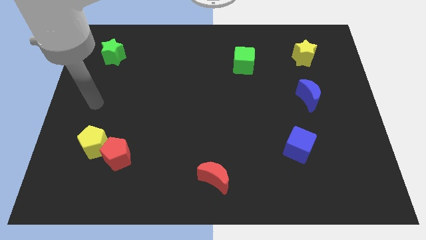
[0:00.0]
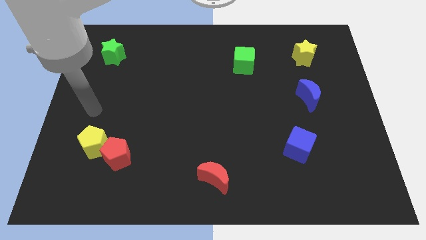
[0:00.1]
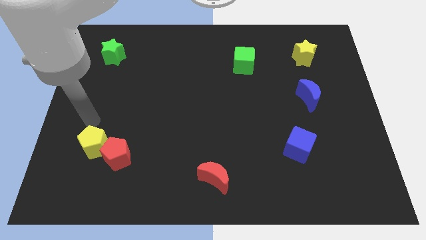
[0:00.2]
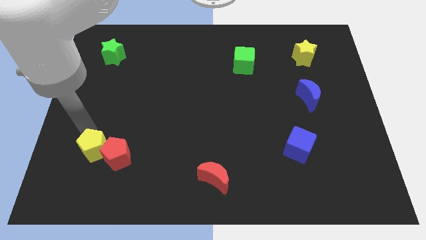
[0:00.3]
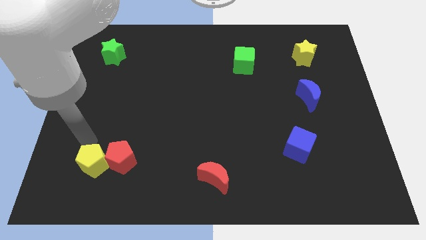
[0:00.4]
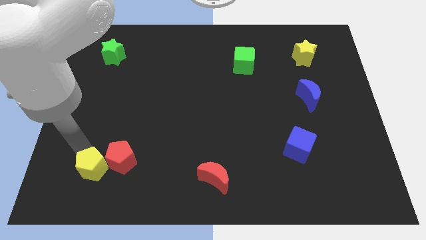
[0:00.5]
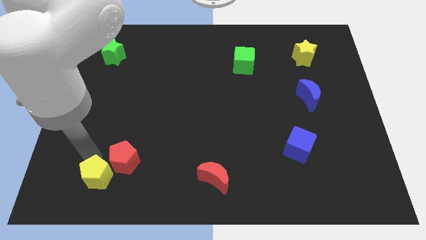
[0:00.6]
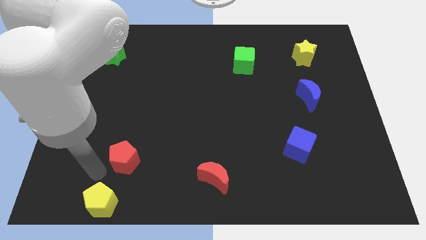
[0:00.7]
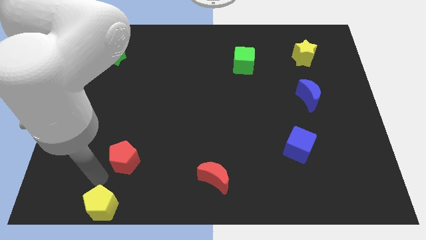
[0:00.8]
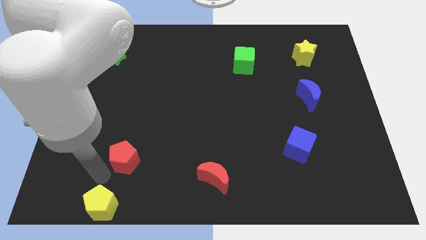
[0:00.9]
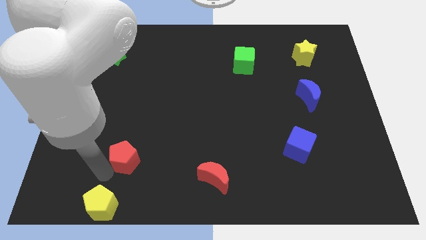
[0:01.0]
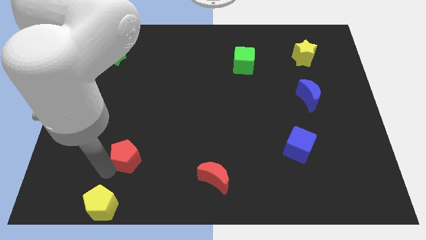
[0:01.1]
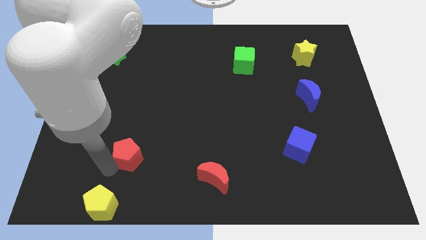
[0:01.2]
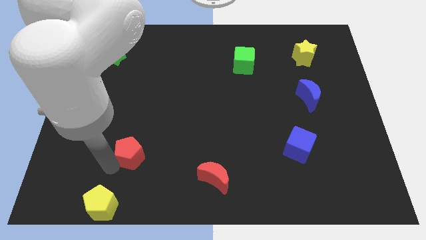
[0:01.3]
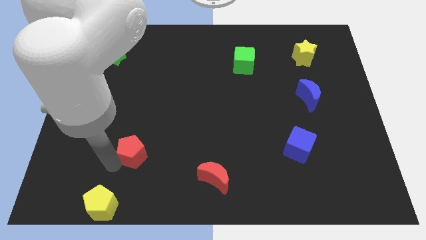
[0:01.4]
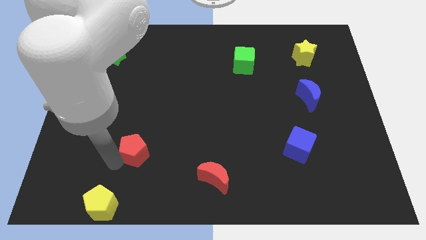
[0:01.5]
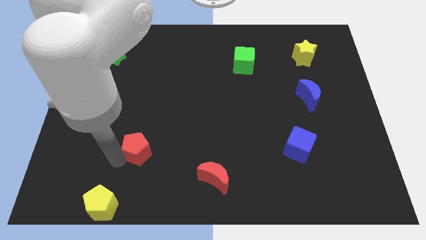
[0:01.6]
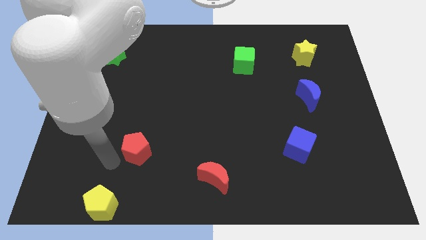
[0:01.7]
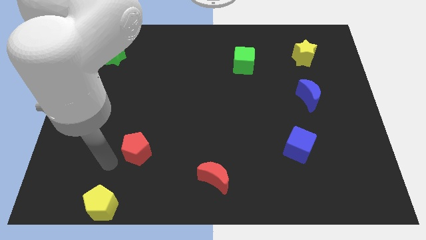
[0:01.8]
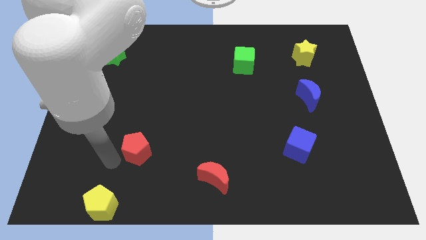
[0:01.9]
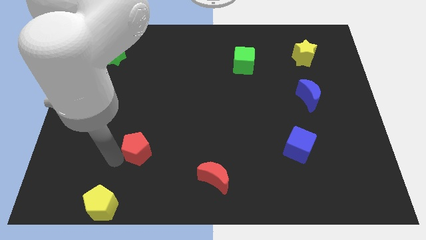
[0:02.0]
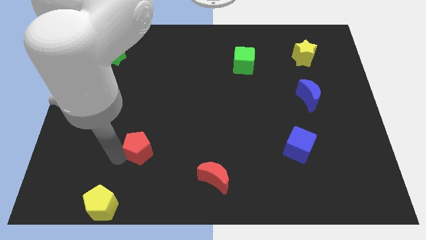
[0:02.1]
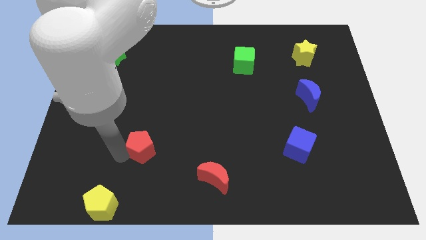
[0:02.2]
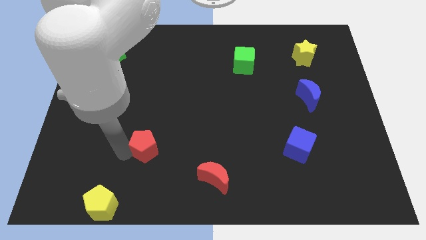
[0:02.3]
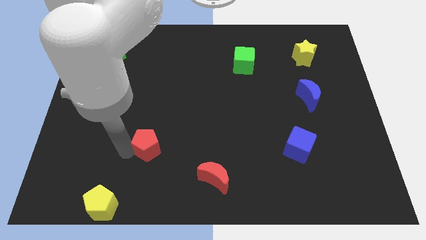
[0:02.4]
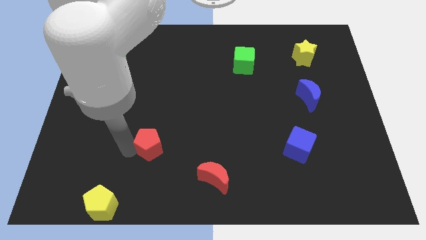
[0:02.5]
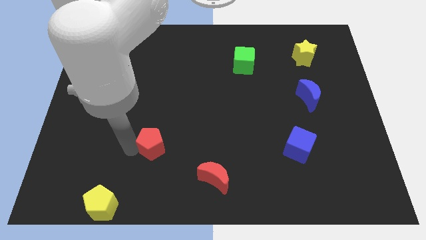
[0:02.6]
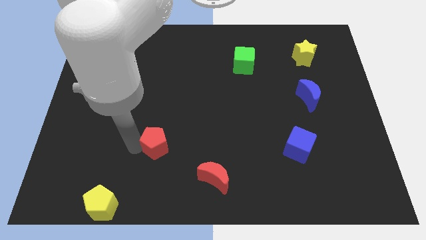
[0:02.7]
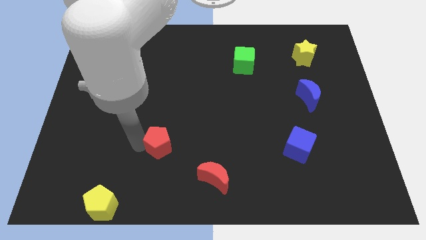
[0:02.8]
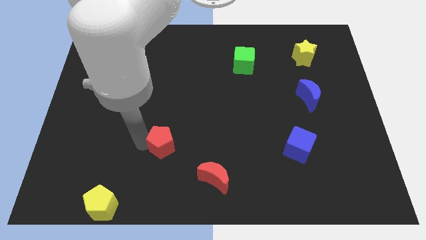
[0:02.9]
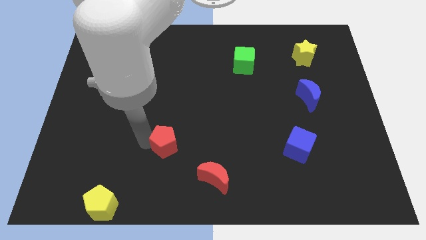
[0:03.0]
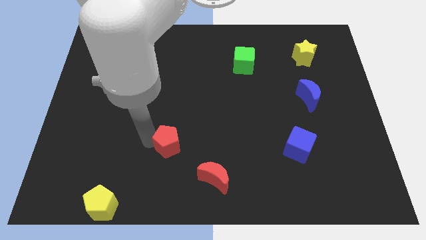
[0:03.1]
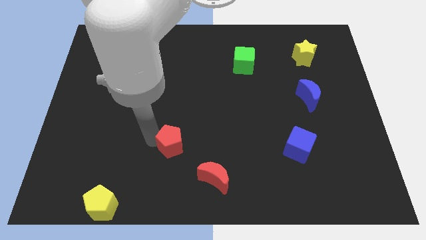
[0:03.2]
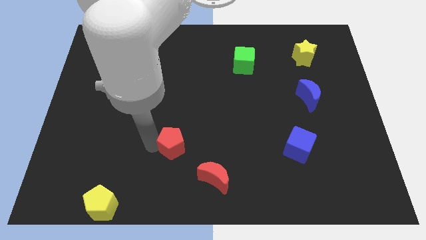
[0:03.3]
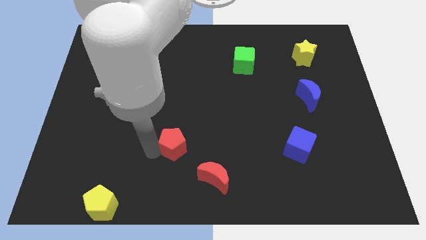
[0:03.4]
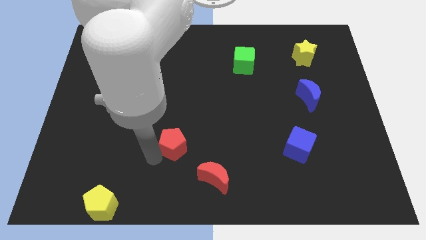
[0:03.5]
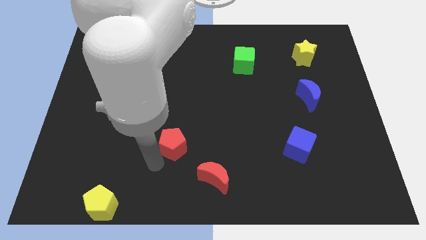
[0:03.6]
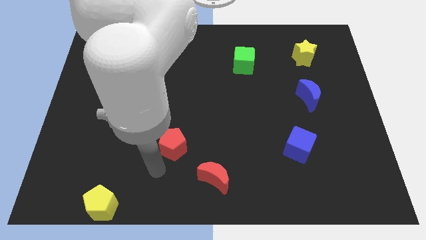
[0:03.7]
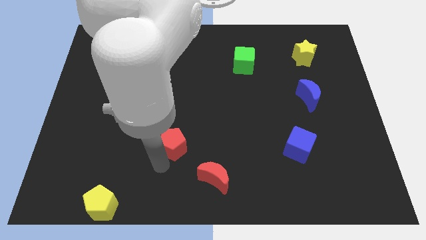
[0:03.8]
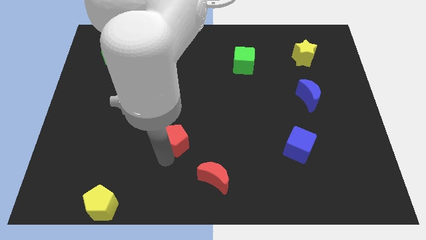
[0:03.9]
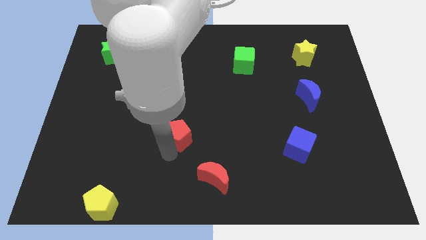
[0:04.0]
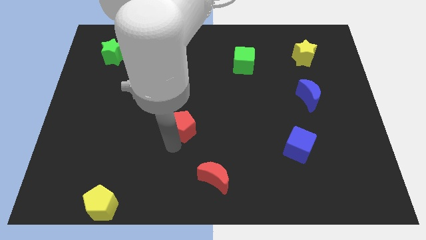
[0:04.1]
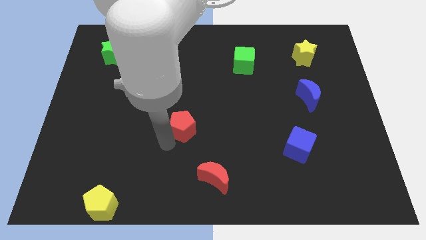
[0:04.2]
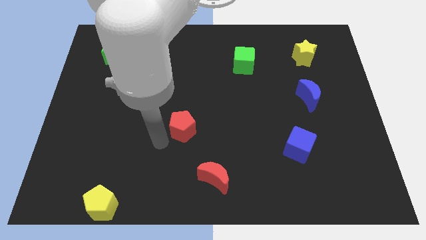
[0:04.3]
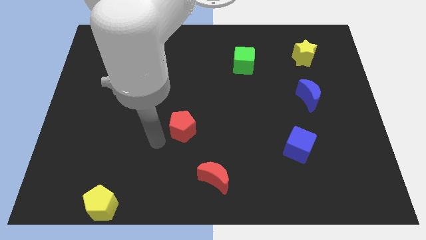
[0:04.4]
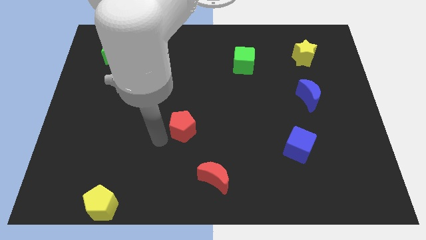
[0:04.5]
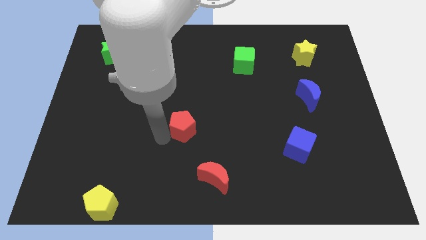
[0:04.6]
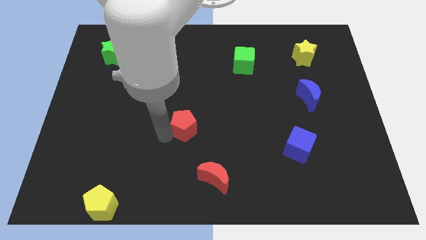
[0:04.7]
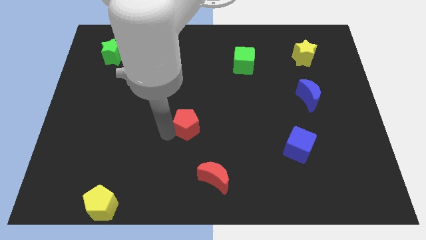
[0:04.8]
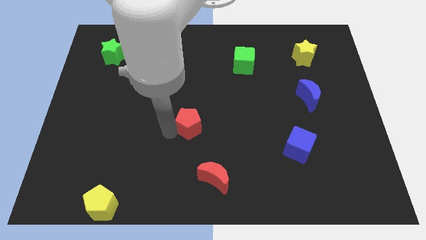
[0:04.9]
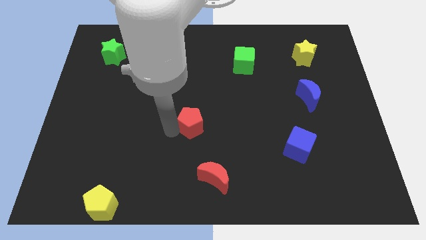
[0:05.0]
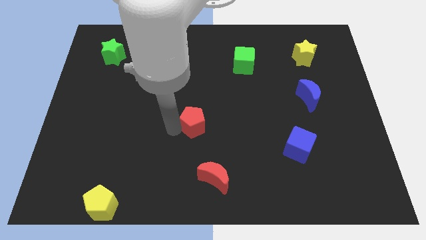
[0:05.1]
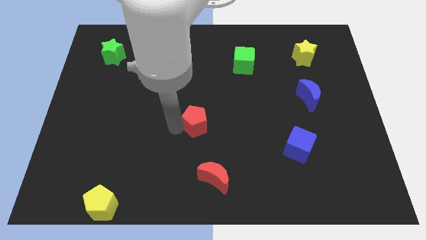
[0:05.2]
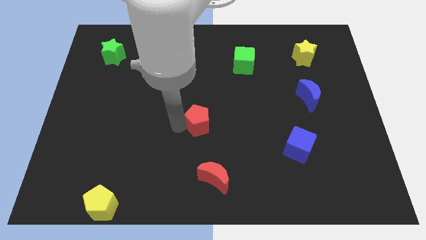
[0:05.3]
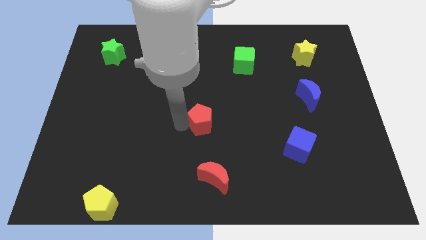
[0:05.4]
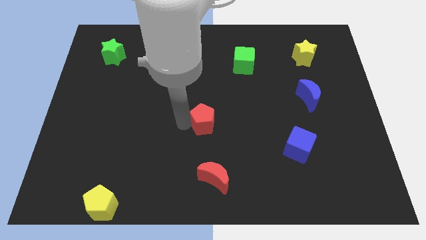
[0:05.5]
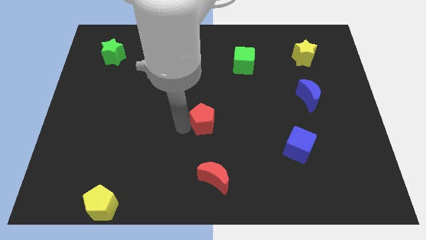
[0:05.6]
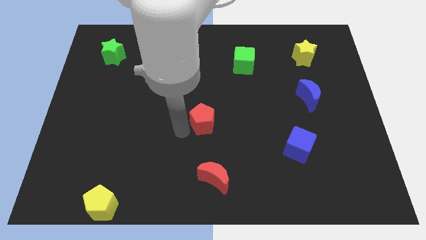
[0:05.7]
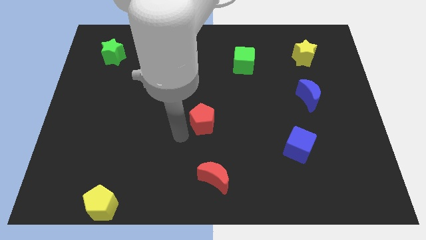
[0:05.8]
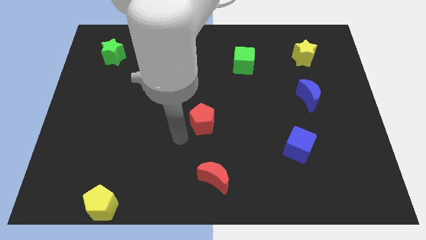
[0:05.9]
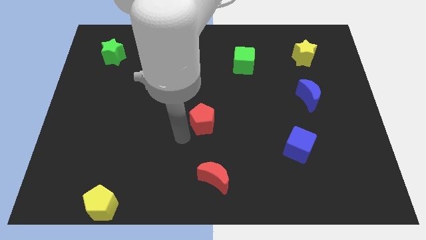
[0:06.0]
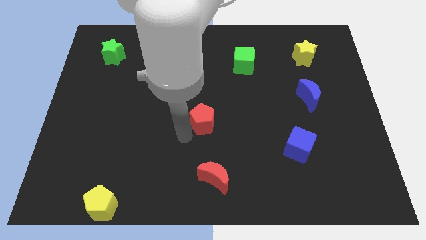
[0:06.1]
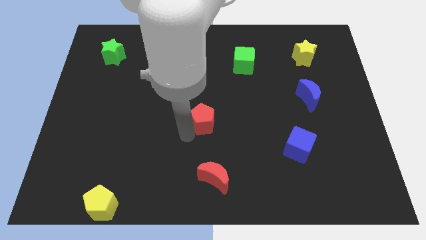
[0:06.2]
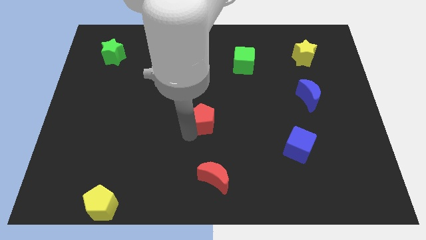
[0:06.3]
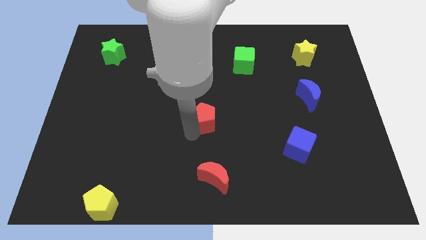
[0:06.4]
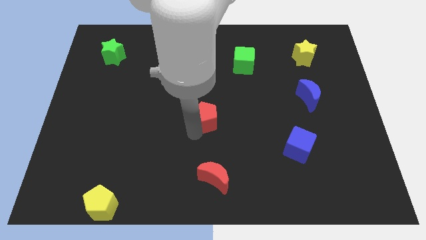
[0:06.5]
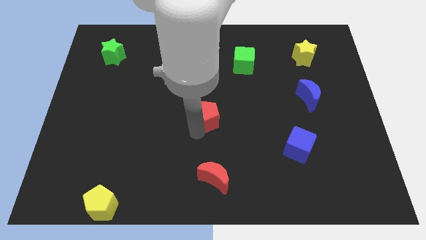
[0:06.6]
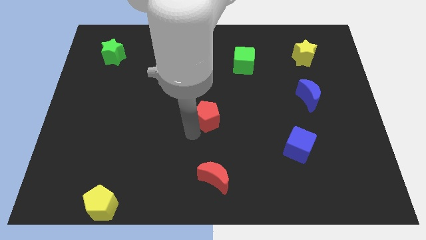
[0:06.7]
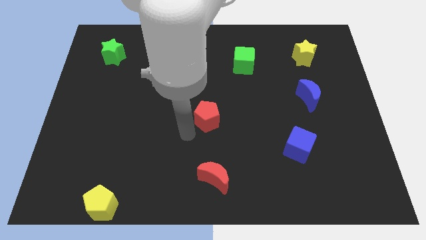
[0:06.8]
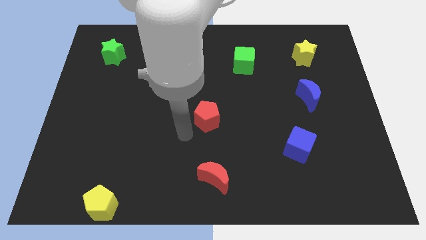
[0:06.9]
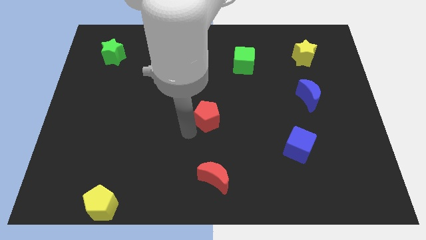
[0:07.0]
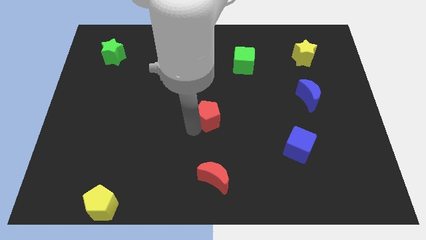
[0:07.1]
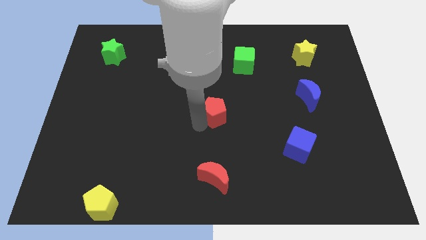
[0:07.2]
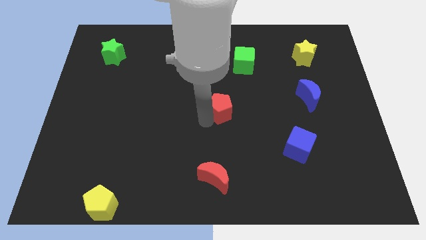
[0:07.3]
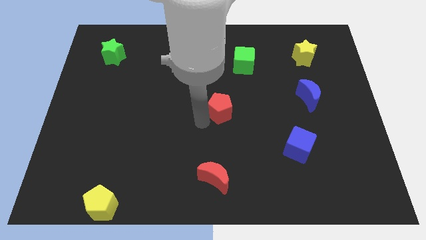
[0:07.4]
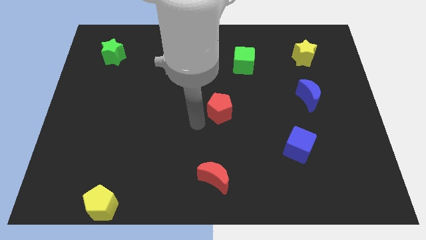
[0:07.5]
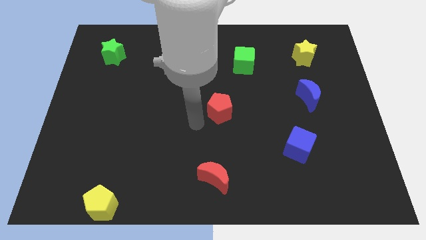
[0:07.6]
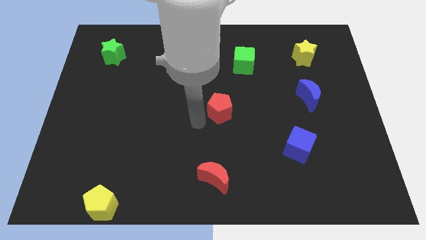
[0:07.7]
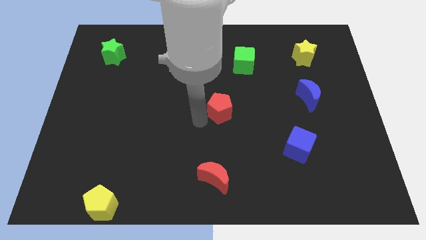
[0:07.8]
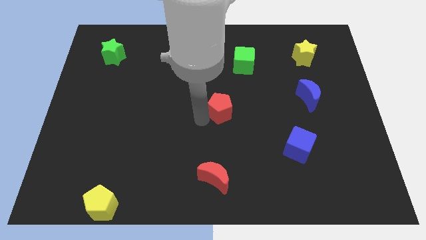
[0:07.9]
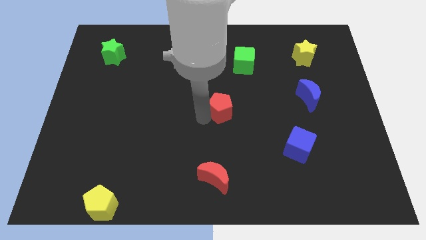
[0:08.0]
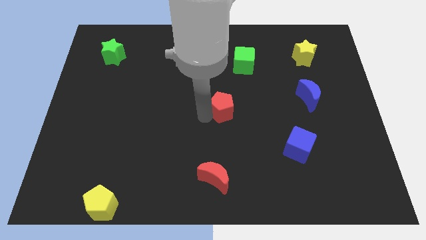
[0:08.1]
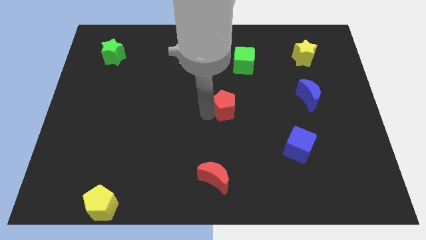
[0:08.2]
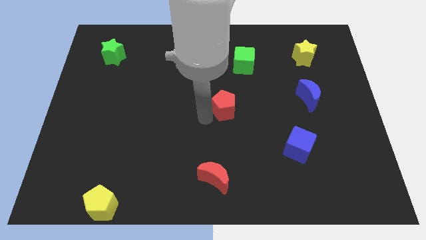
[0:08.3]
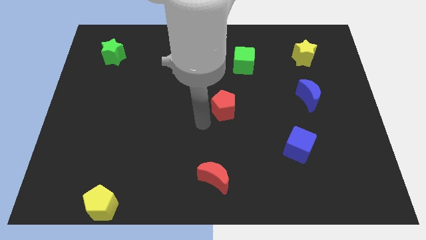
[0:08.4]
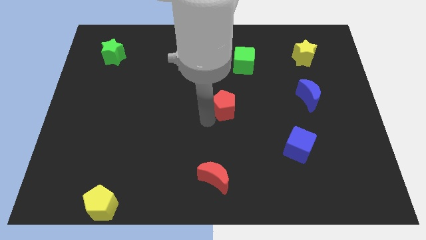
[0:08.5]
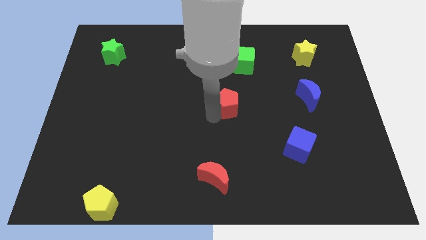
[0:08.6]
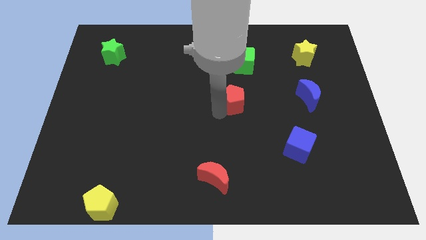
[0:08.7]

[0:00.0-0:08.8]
move the red pentagon to the bottom side of the green cube
